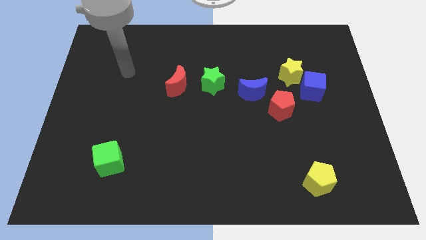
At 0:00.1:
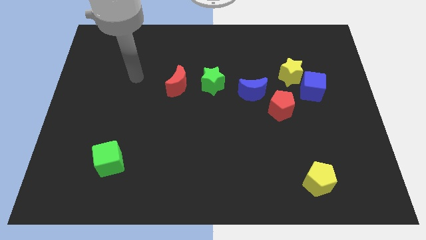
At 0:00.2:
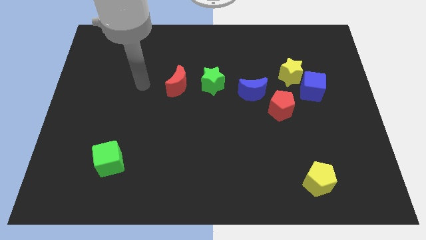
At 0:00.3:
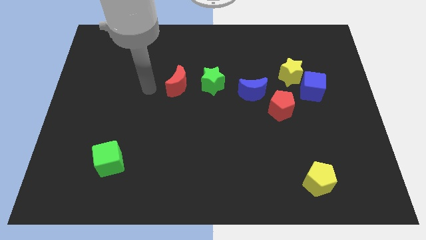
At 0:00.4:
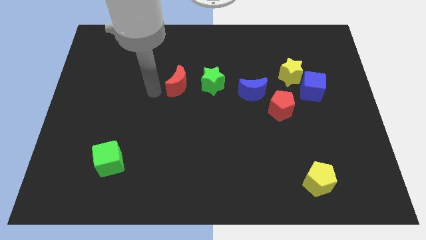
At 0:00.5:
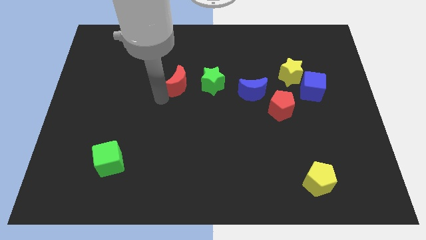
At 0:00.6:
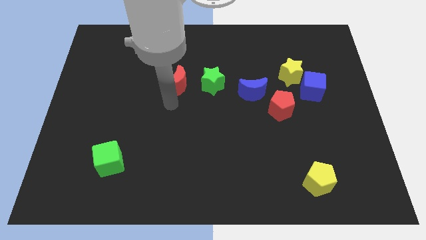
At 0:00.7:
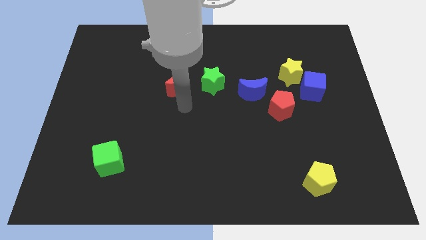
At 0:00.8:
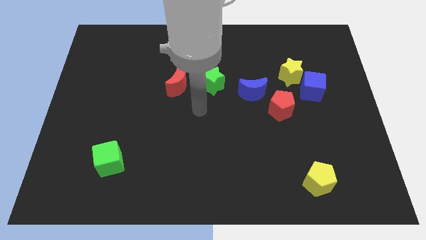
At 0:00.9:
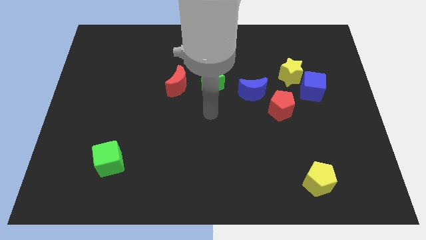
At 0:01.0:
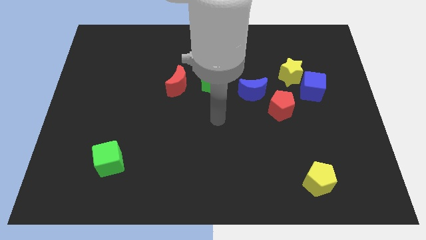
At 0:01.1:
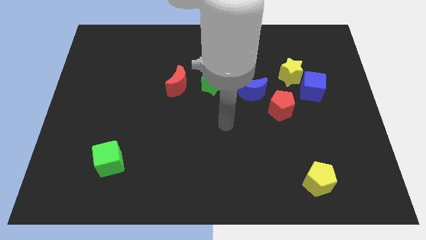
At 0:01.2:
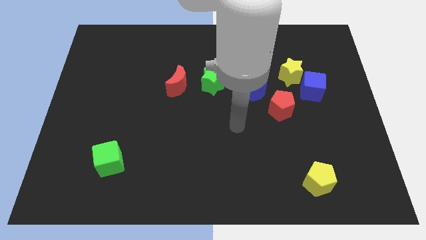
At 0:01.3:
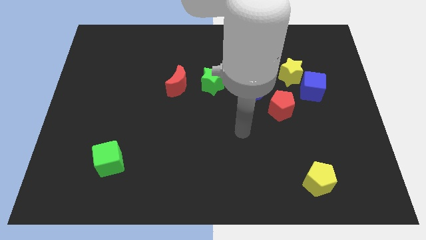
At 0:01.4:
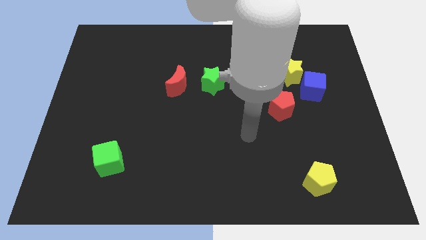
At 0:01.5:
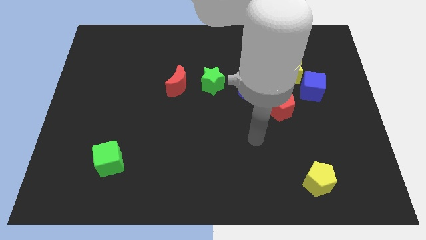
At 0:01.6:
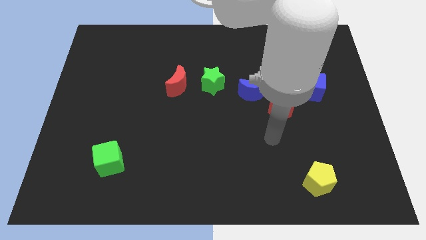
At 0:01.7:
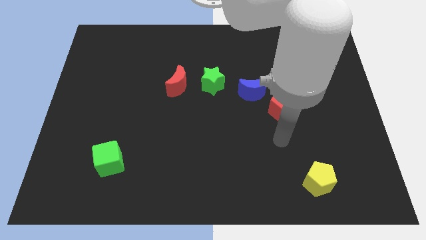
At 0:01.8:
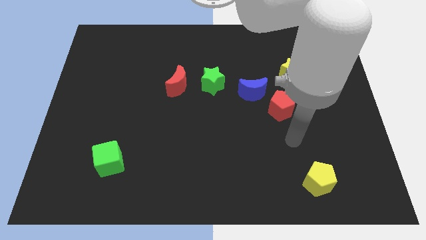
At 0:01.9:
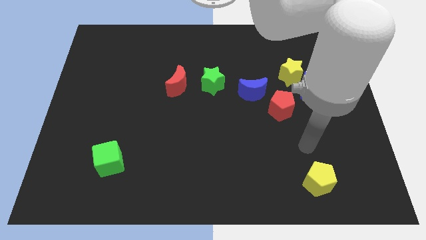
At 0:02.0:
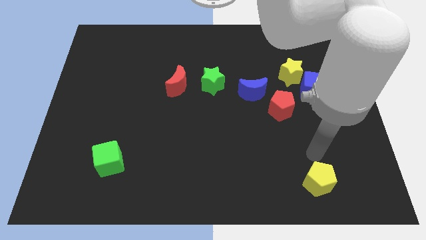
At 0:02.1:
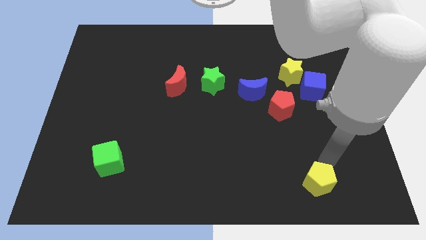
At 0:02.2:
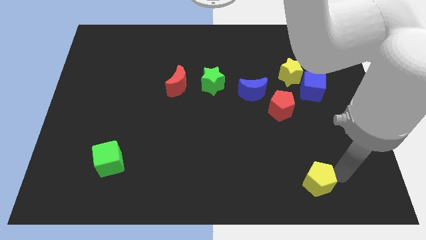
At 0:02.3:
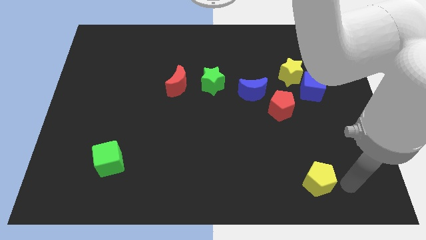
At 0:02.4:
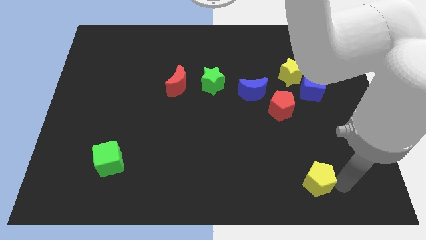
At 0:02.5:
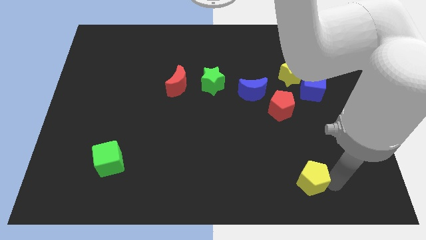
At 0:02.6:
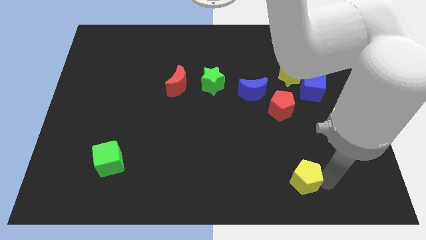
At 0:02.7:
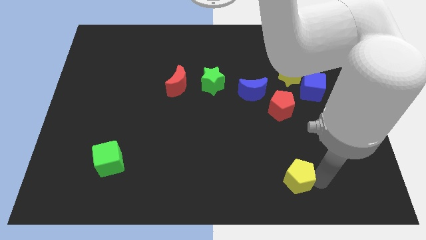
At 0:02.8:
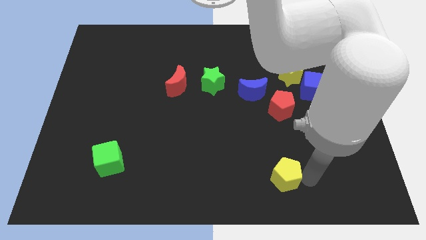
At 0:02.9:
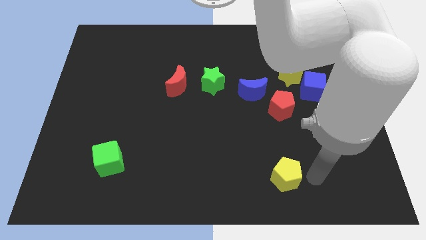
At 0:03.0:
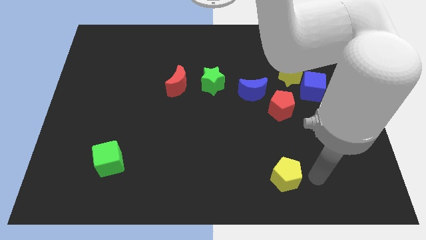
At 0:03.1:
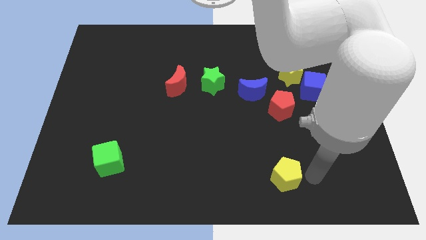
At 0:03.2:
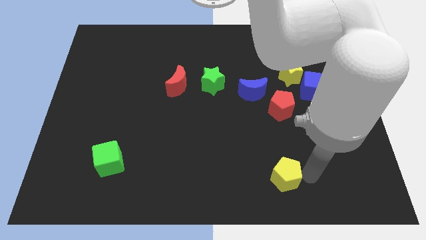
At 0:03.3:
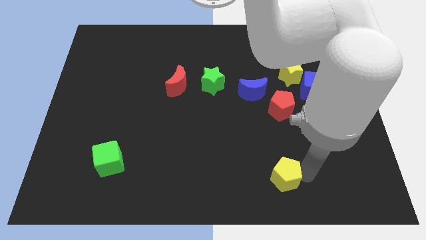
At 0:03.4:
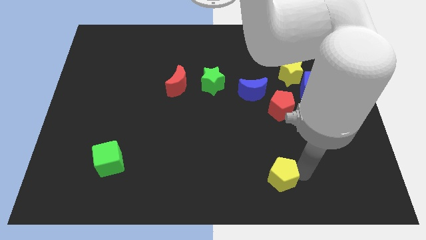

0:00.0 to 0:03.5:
push the yellow pentagon to the left a little bit

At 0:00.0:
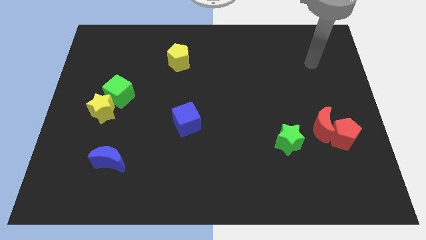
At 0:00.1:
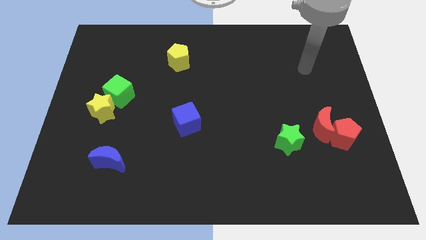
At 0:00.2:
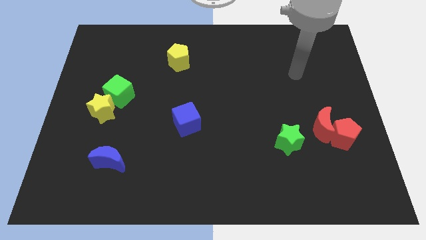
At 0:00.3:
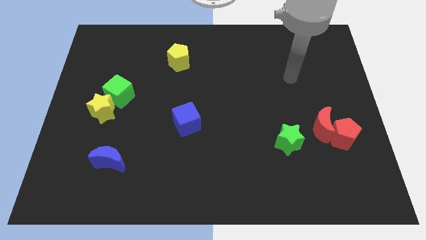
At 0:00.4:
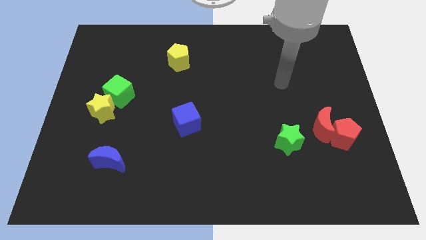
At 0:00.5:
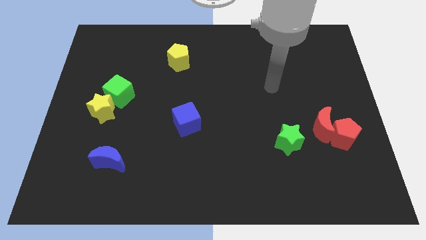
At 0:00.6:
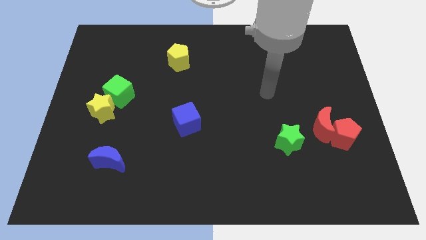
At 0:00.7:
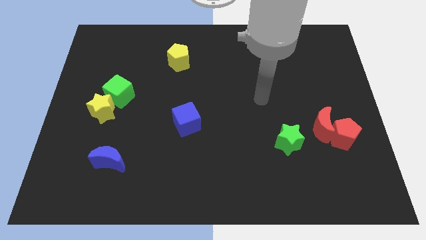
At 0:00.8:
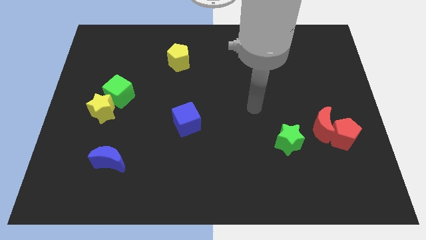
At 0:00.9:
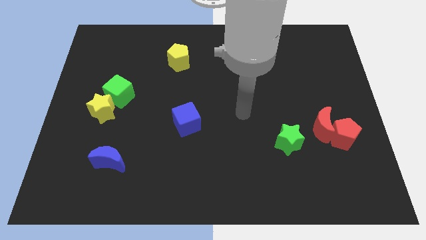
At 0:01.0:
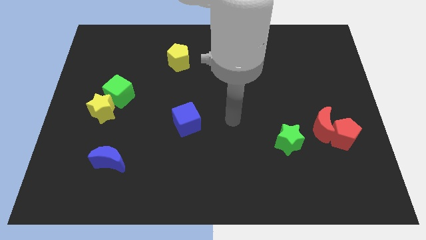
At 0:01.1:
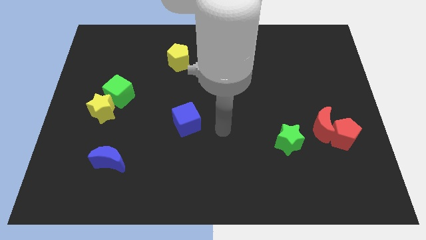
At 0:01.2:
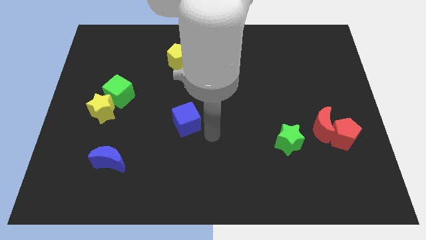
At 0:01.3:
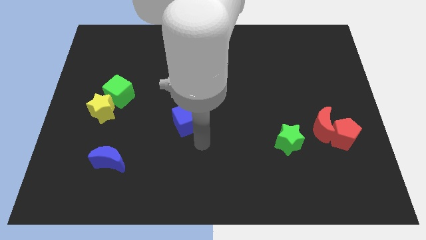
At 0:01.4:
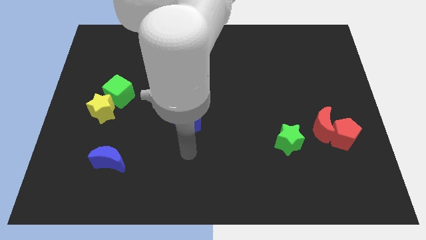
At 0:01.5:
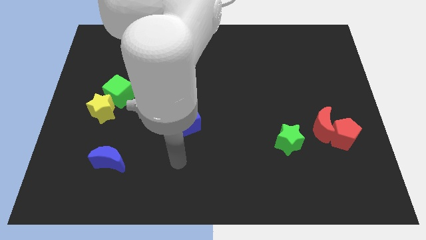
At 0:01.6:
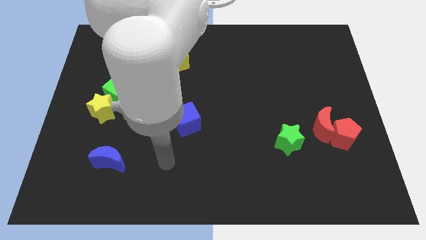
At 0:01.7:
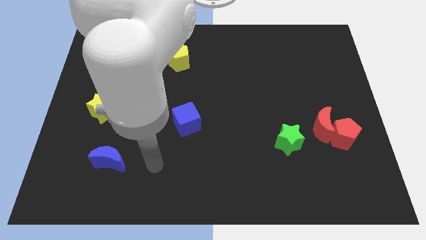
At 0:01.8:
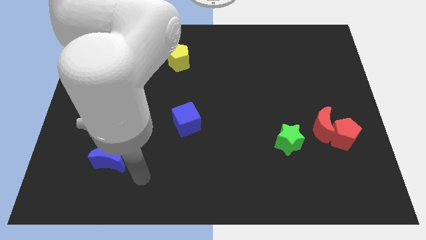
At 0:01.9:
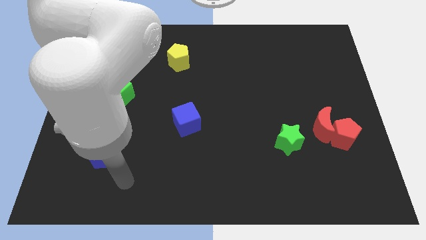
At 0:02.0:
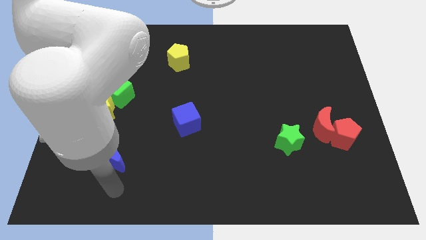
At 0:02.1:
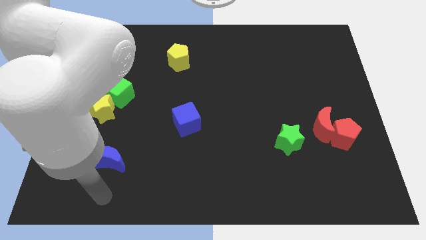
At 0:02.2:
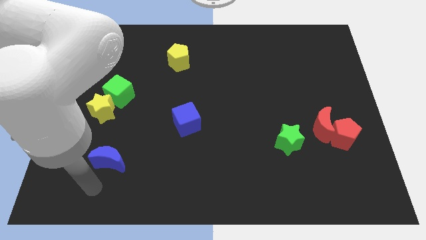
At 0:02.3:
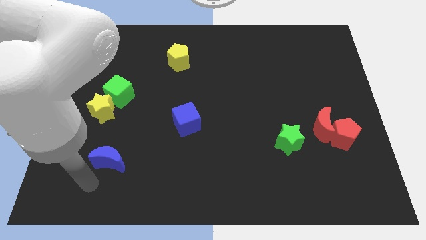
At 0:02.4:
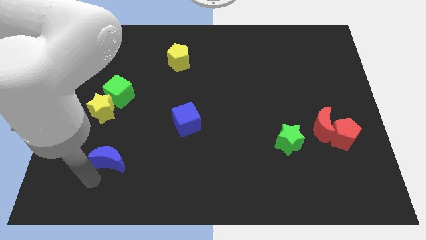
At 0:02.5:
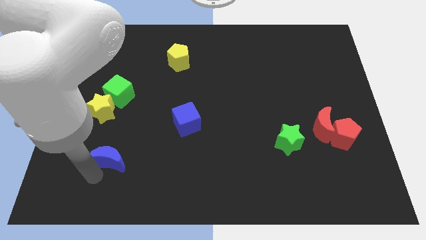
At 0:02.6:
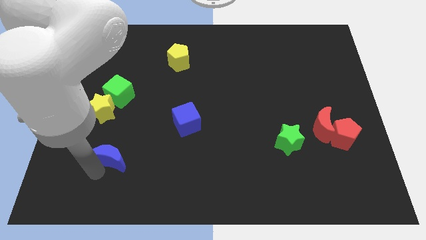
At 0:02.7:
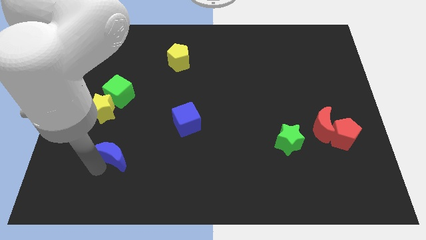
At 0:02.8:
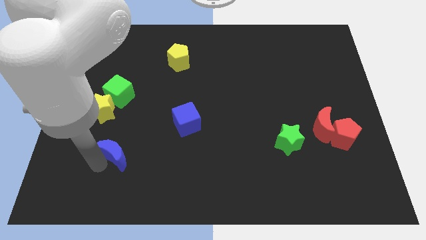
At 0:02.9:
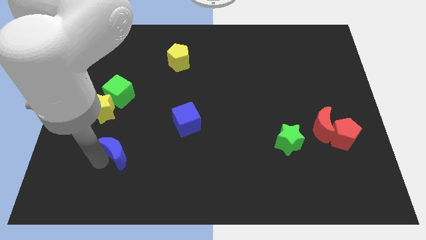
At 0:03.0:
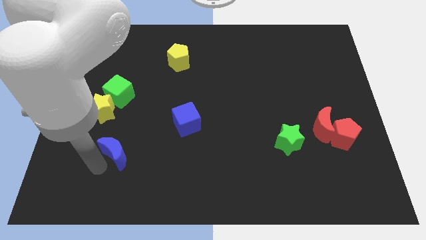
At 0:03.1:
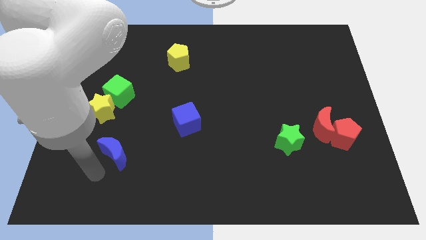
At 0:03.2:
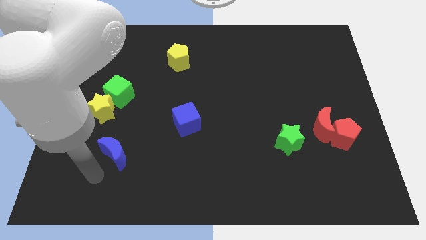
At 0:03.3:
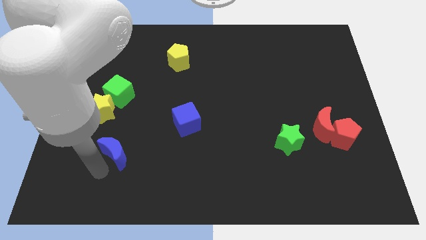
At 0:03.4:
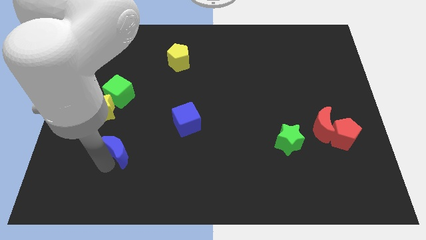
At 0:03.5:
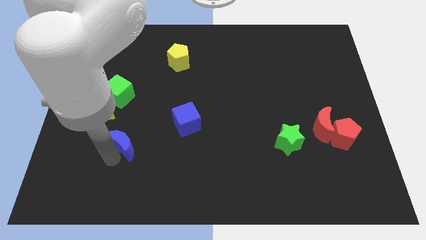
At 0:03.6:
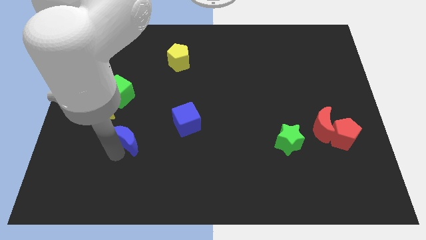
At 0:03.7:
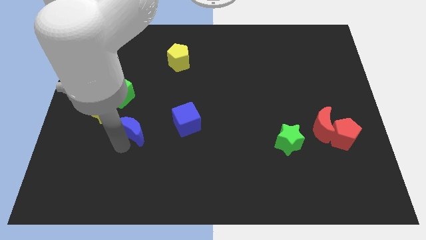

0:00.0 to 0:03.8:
slightly move the blue moon diagonally upwards and to the right

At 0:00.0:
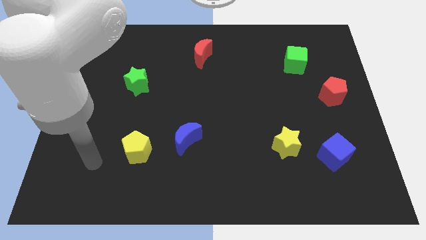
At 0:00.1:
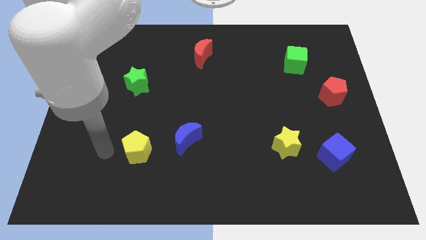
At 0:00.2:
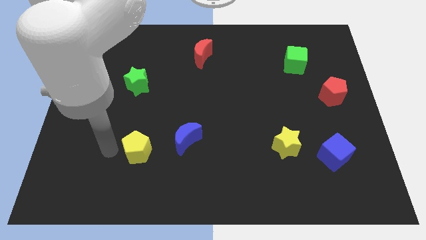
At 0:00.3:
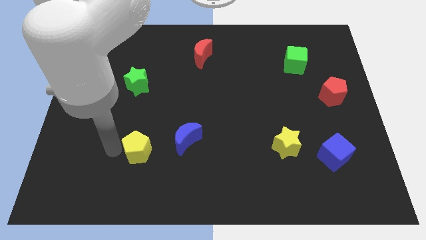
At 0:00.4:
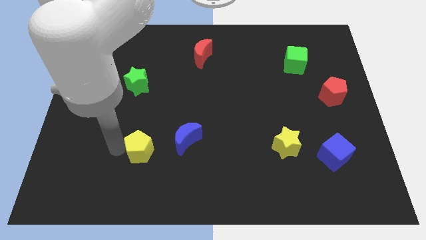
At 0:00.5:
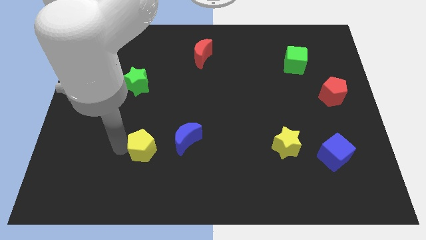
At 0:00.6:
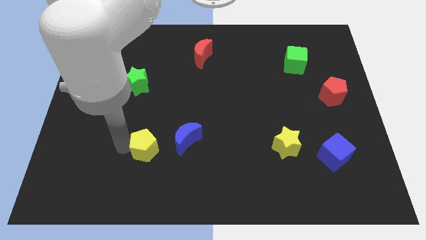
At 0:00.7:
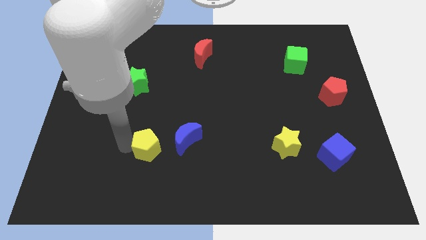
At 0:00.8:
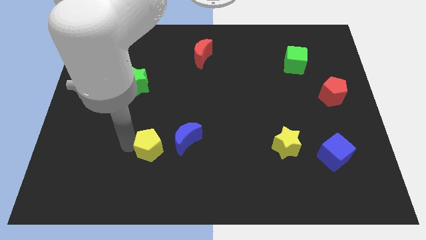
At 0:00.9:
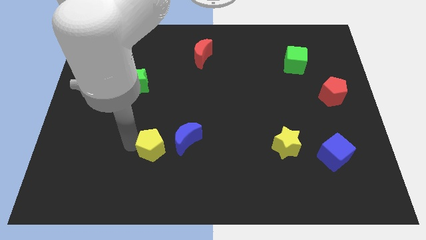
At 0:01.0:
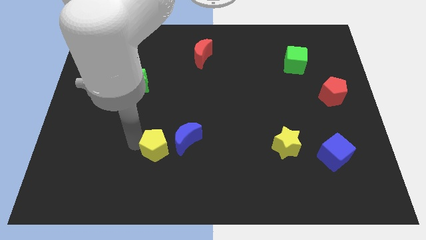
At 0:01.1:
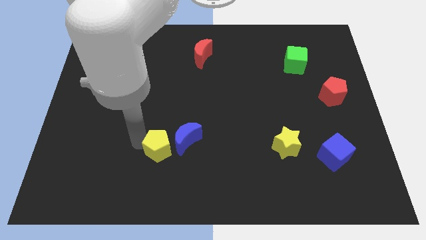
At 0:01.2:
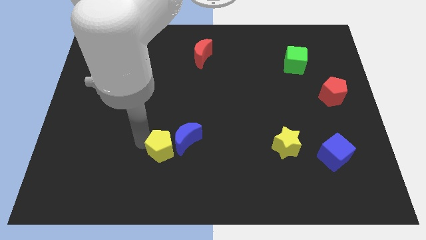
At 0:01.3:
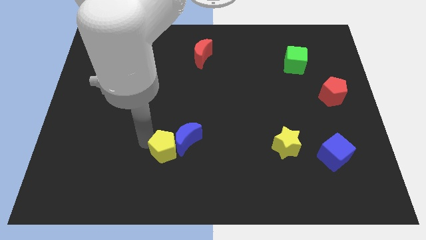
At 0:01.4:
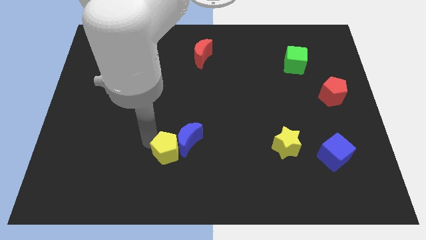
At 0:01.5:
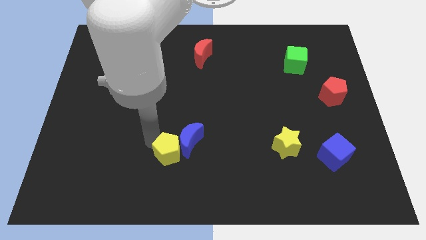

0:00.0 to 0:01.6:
slide the yellow pentagon somewhat right
